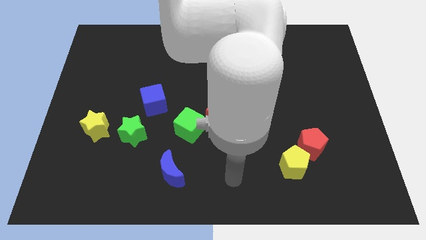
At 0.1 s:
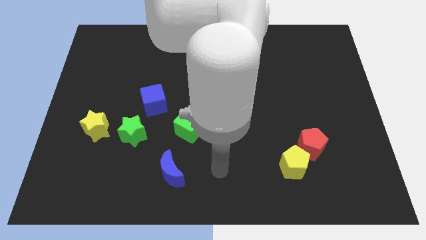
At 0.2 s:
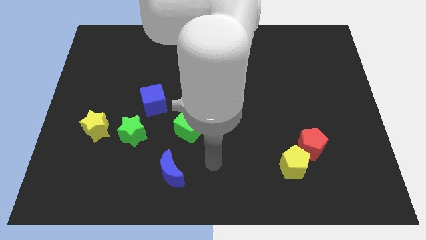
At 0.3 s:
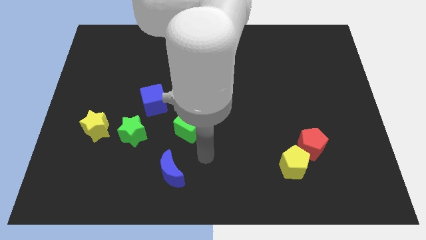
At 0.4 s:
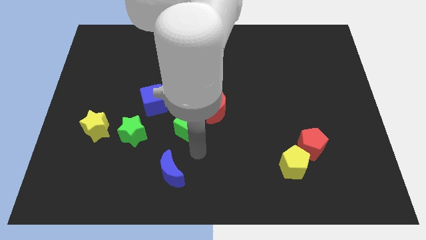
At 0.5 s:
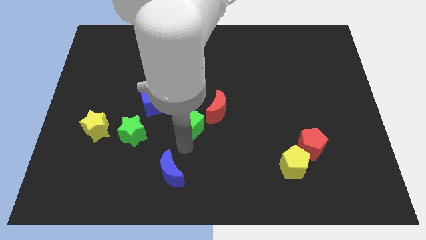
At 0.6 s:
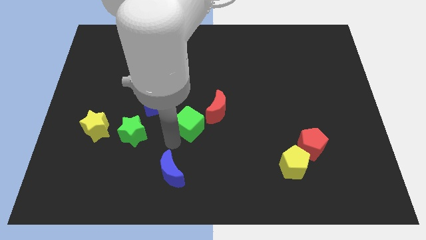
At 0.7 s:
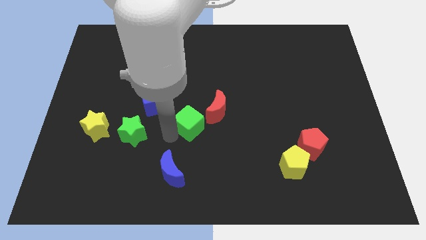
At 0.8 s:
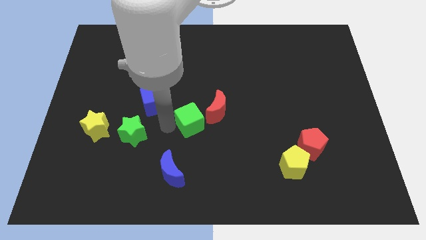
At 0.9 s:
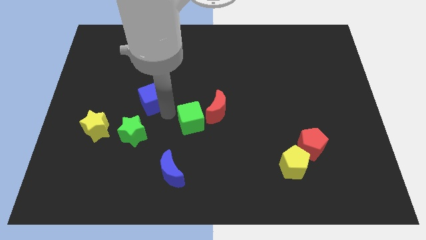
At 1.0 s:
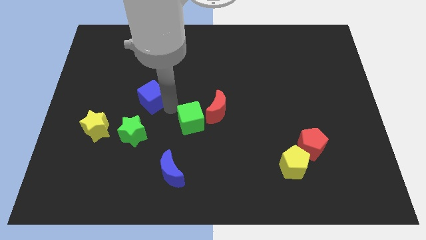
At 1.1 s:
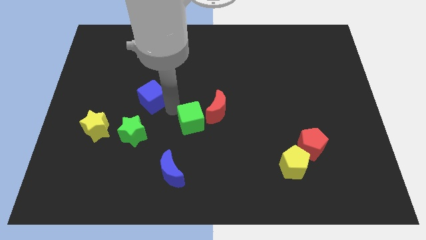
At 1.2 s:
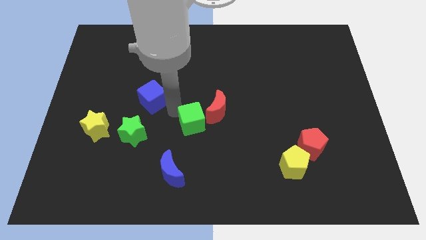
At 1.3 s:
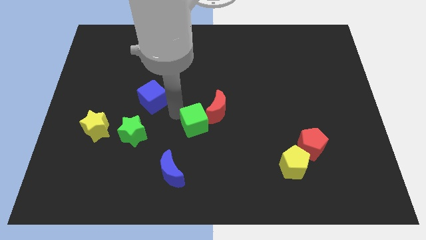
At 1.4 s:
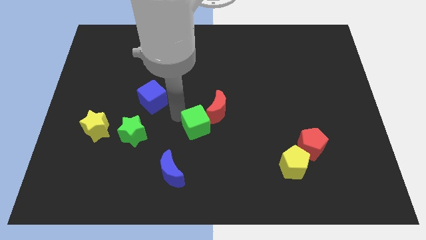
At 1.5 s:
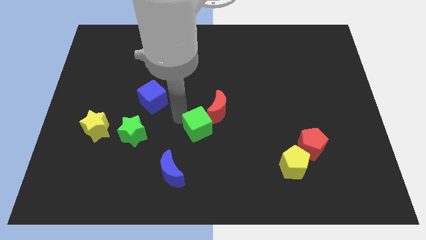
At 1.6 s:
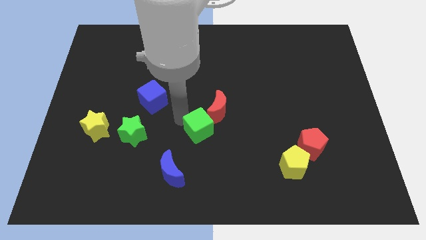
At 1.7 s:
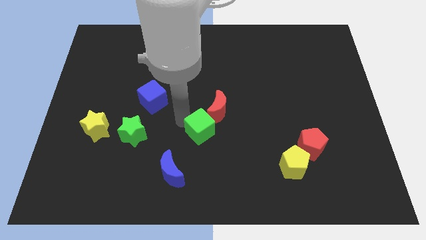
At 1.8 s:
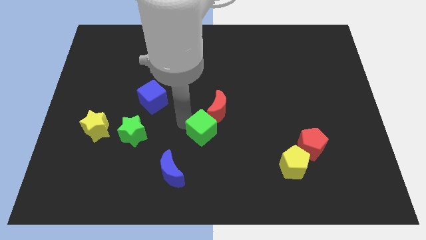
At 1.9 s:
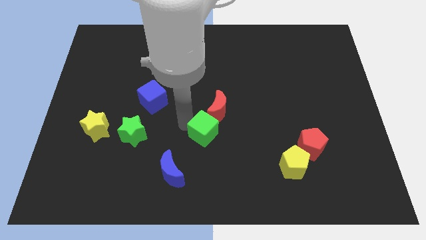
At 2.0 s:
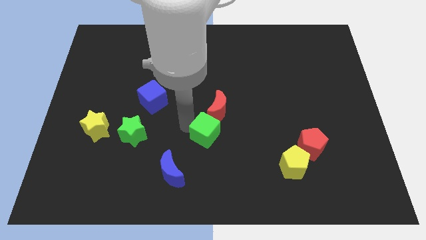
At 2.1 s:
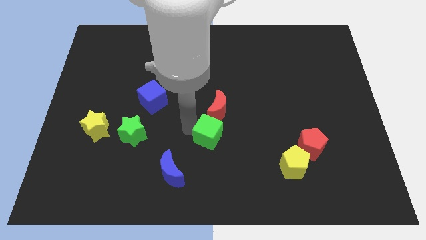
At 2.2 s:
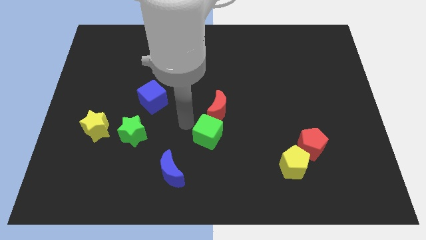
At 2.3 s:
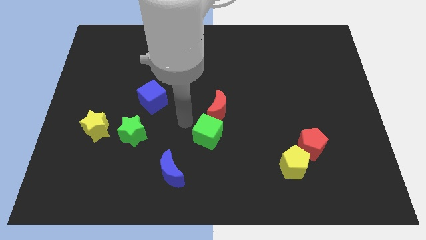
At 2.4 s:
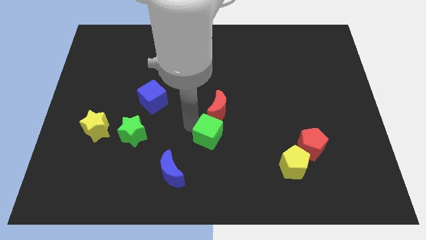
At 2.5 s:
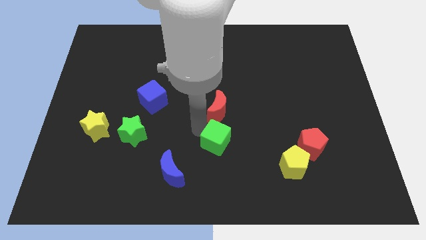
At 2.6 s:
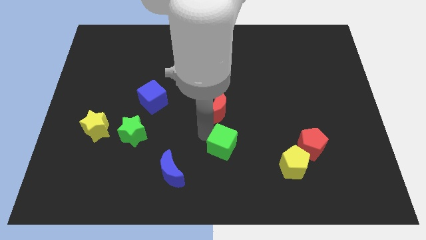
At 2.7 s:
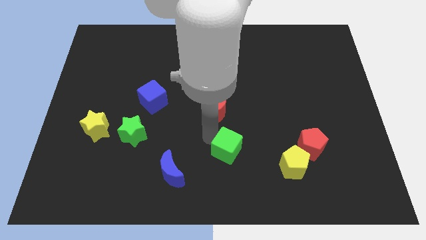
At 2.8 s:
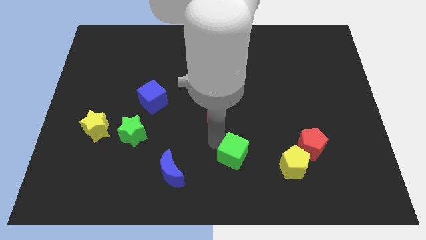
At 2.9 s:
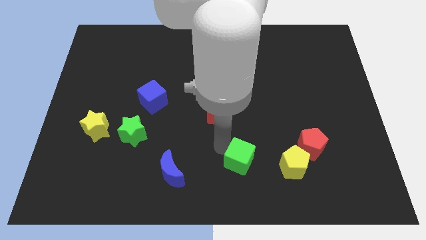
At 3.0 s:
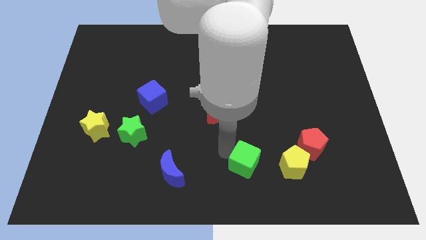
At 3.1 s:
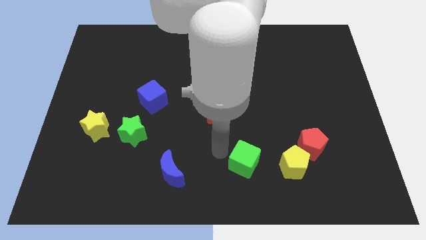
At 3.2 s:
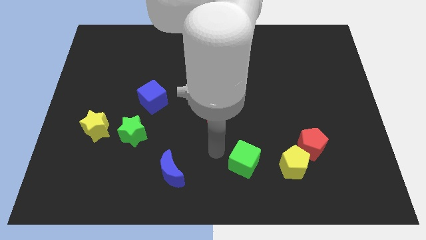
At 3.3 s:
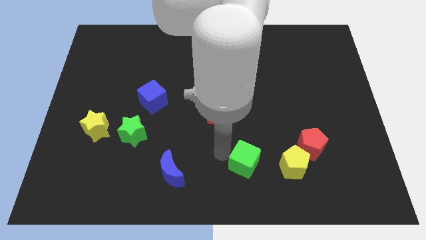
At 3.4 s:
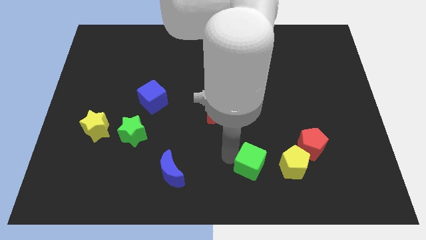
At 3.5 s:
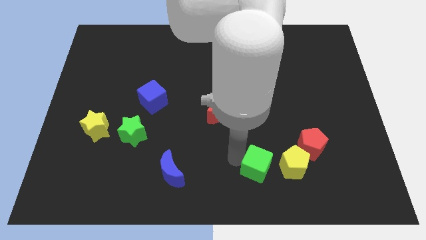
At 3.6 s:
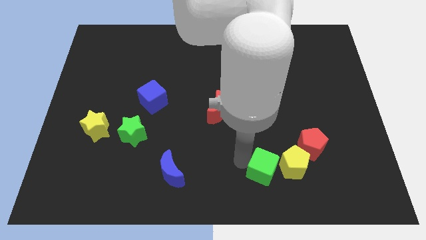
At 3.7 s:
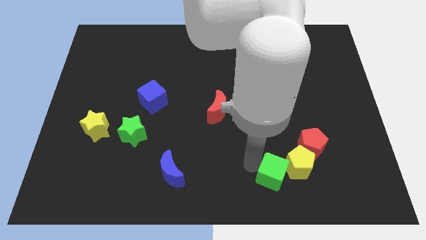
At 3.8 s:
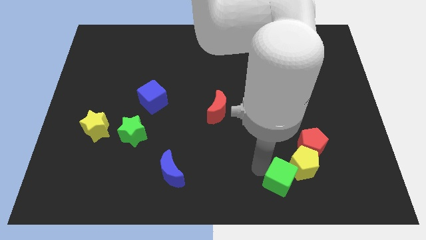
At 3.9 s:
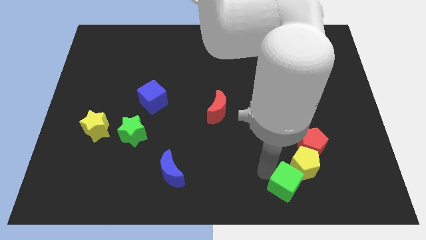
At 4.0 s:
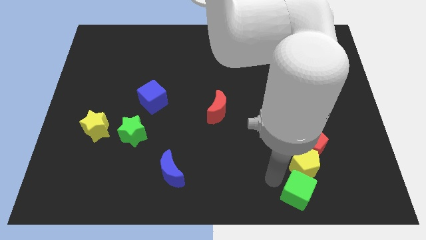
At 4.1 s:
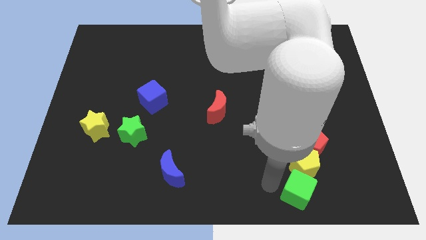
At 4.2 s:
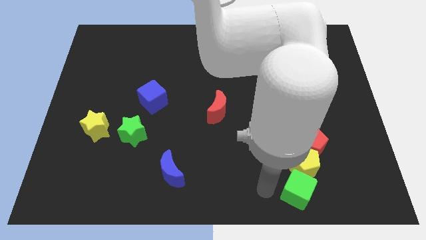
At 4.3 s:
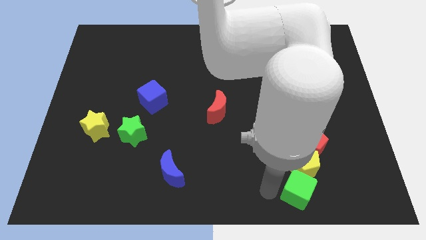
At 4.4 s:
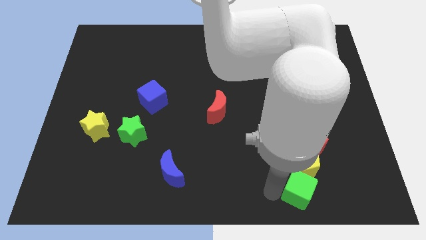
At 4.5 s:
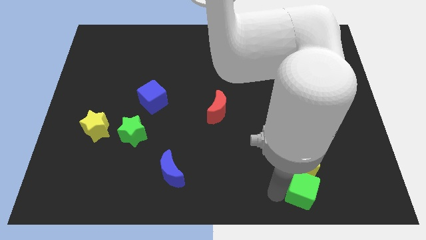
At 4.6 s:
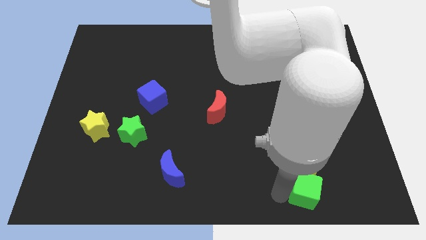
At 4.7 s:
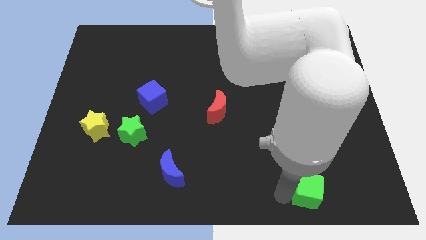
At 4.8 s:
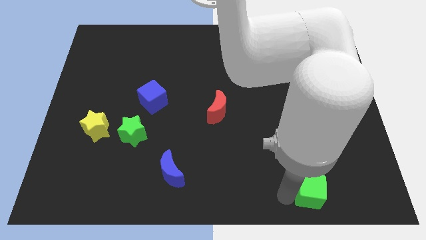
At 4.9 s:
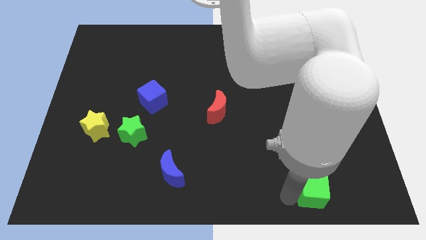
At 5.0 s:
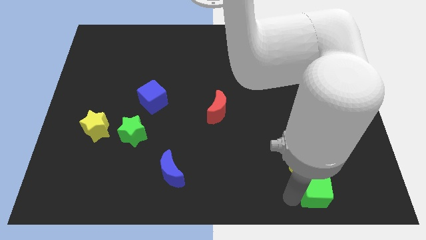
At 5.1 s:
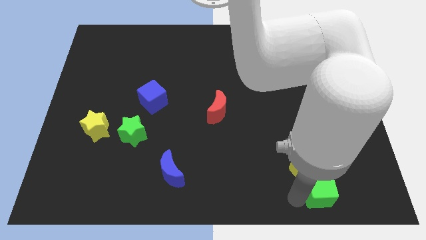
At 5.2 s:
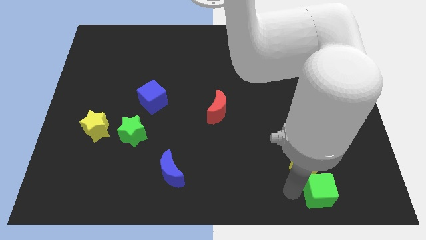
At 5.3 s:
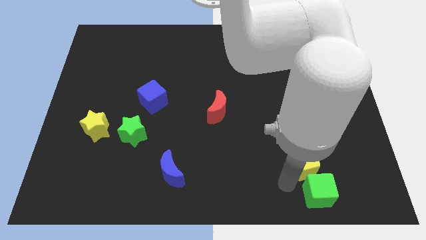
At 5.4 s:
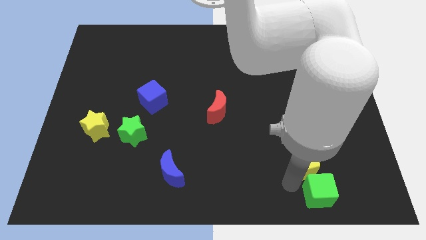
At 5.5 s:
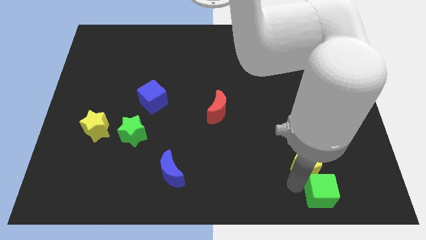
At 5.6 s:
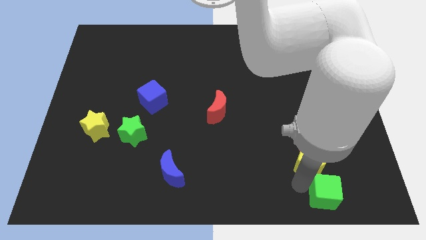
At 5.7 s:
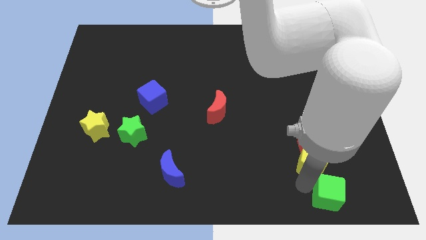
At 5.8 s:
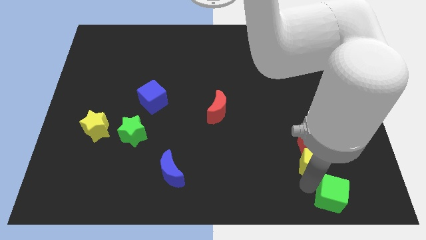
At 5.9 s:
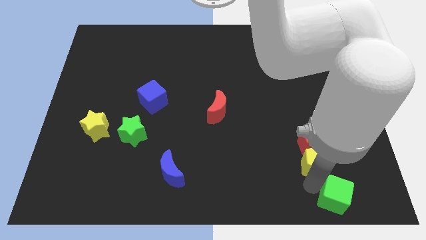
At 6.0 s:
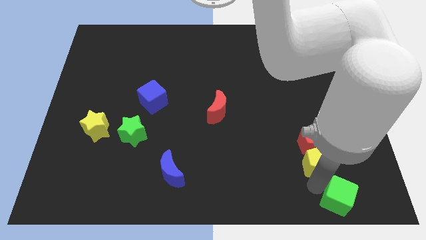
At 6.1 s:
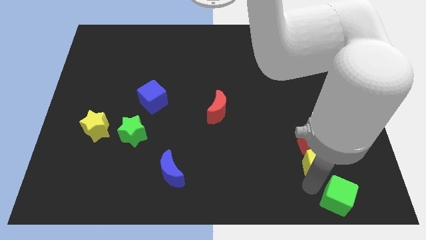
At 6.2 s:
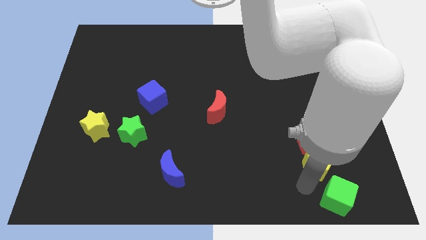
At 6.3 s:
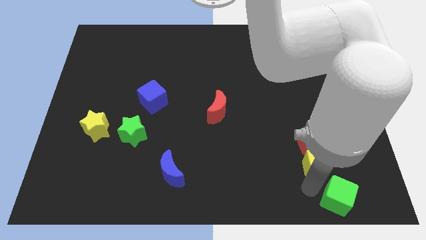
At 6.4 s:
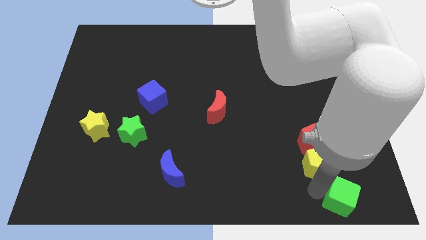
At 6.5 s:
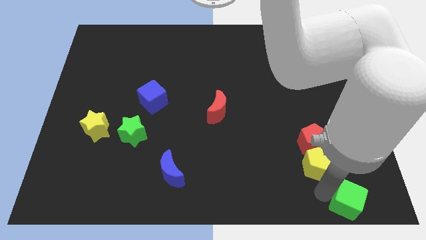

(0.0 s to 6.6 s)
slide the green cube to the lower right corner

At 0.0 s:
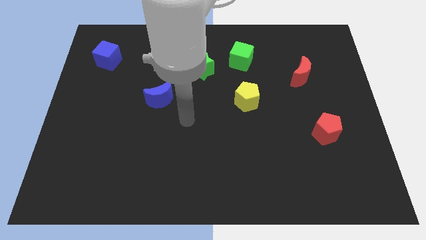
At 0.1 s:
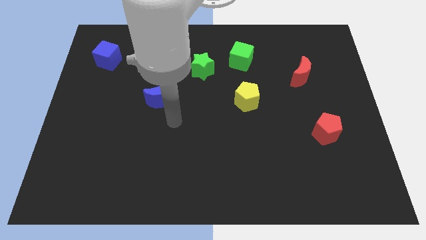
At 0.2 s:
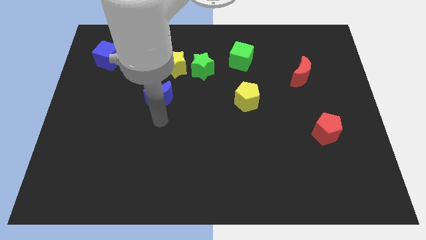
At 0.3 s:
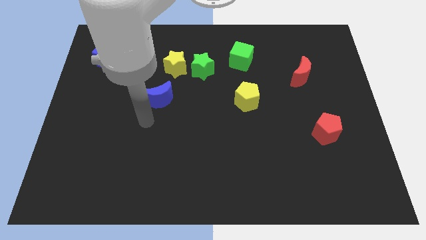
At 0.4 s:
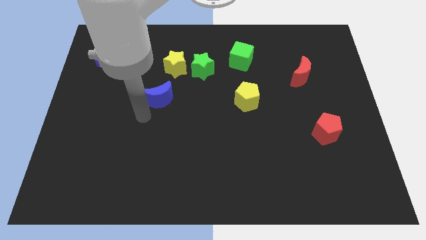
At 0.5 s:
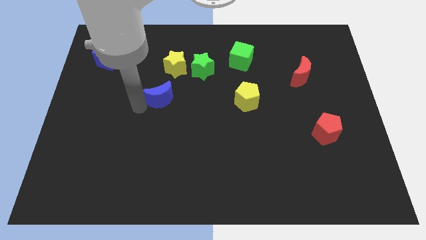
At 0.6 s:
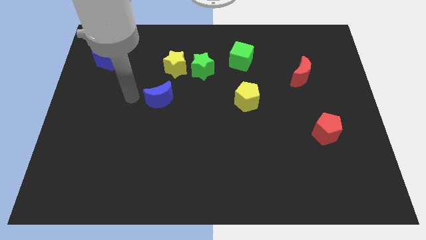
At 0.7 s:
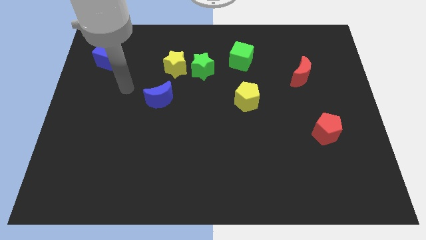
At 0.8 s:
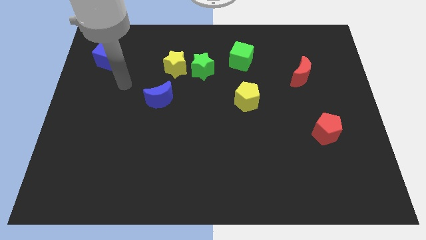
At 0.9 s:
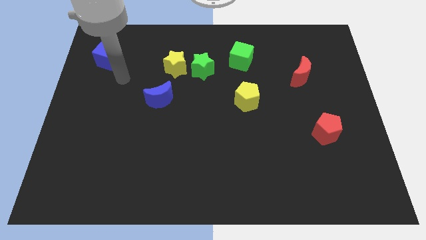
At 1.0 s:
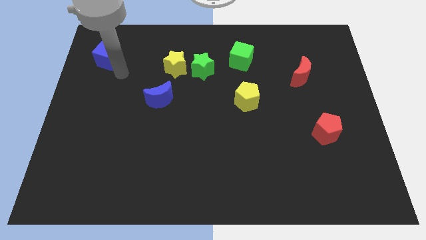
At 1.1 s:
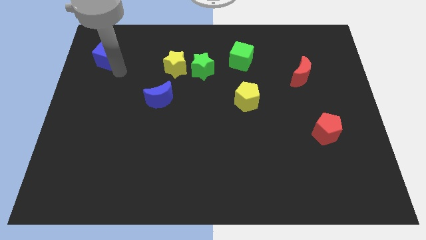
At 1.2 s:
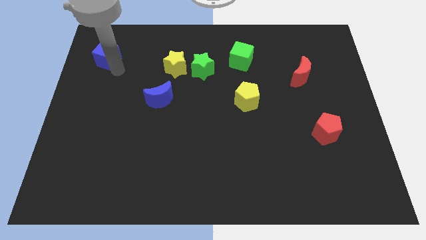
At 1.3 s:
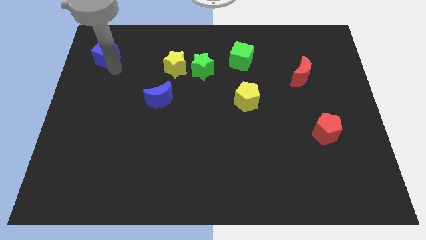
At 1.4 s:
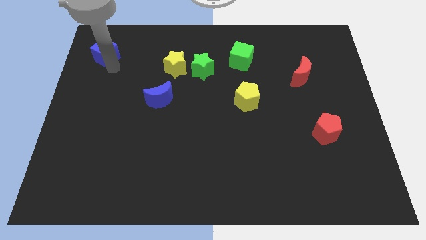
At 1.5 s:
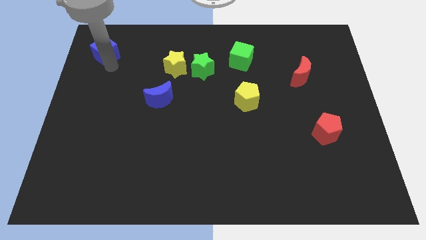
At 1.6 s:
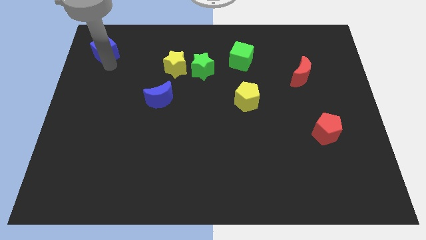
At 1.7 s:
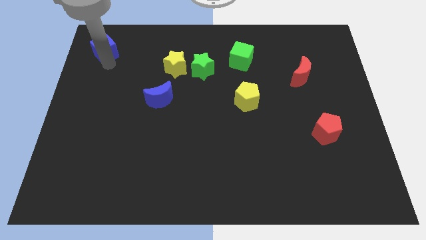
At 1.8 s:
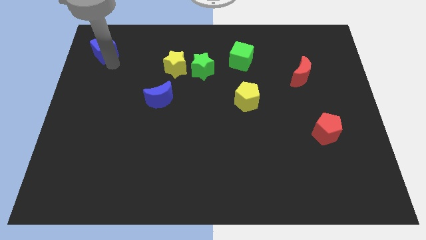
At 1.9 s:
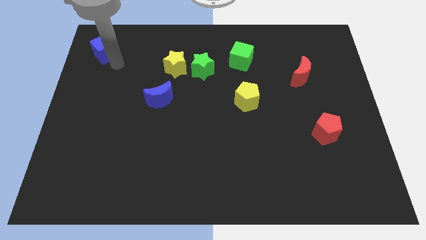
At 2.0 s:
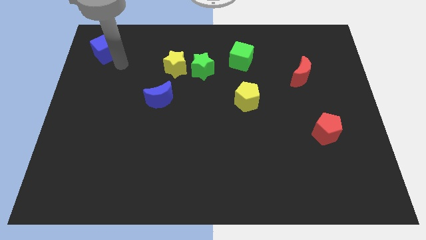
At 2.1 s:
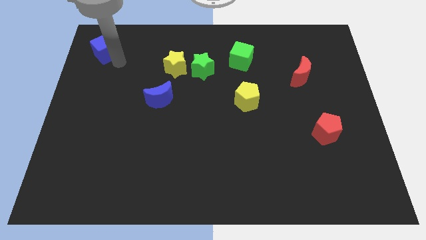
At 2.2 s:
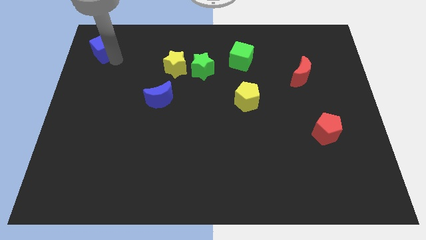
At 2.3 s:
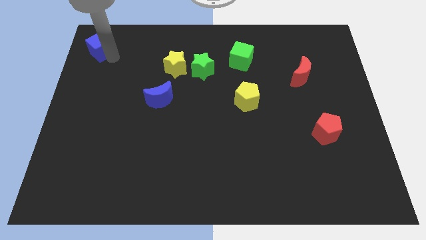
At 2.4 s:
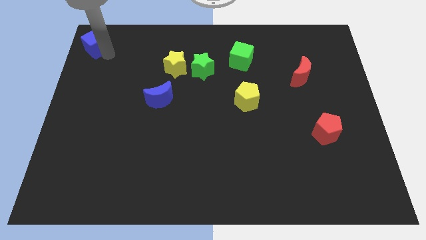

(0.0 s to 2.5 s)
push the blue cube to the top left of the board
